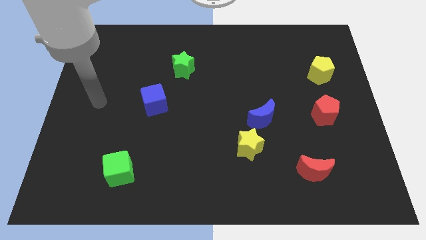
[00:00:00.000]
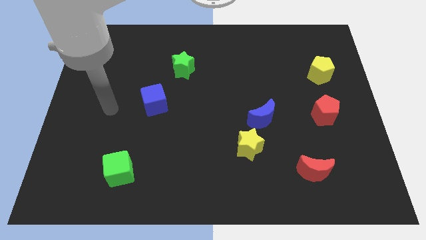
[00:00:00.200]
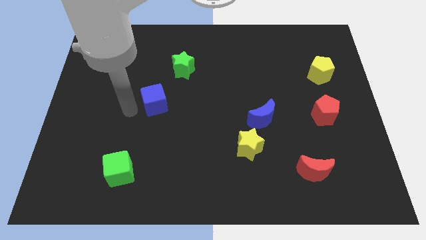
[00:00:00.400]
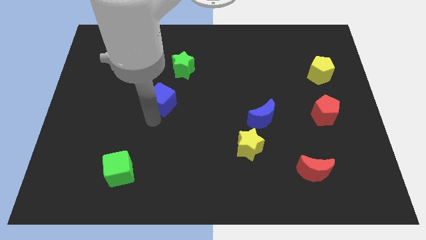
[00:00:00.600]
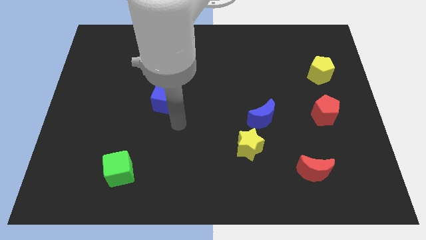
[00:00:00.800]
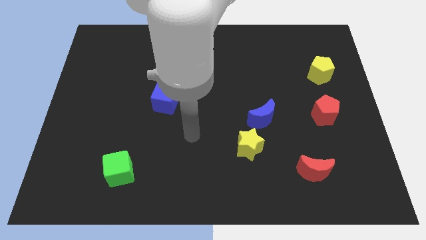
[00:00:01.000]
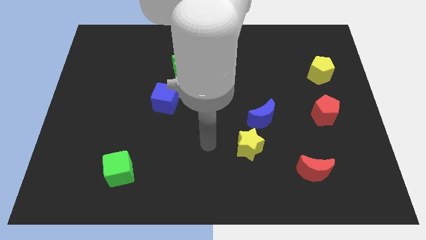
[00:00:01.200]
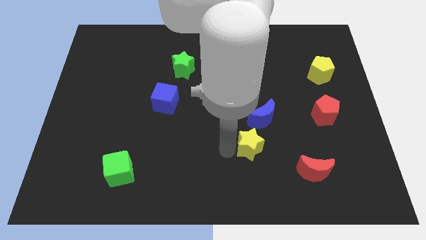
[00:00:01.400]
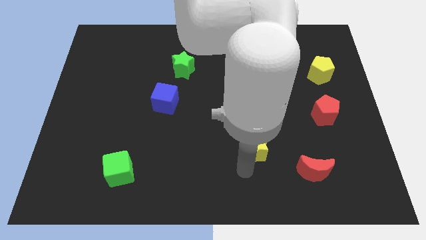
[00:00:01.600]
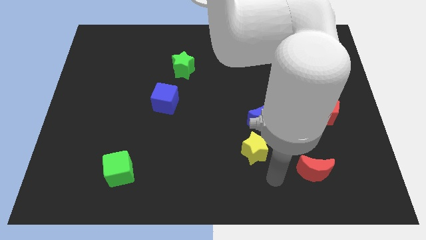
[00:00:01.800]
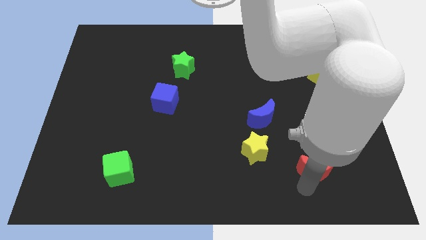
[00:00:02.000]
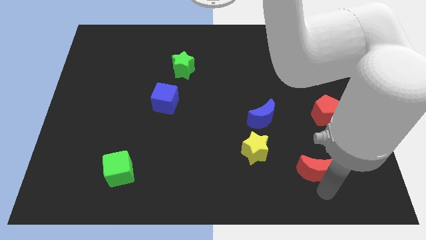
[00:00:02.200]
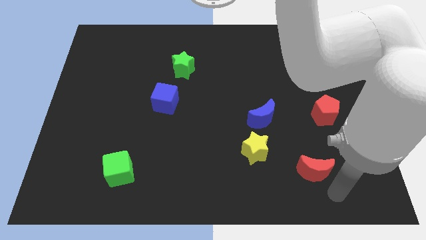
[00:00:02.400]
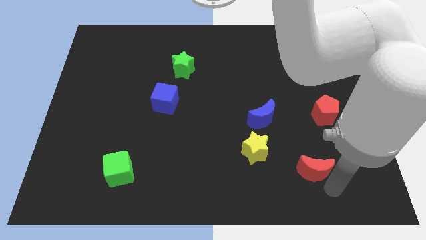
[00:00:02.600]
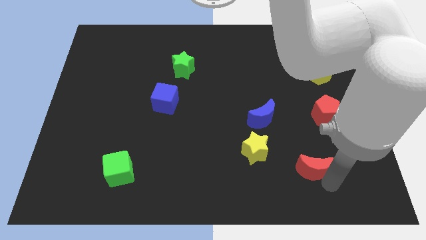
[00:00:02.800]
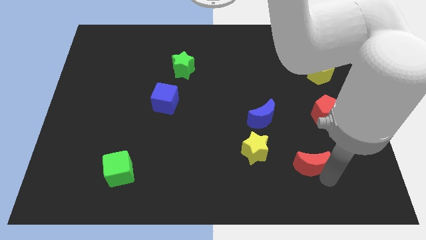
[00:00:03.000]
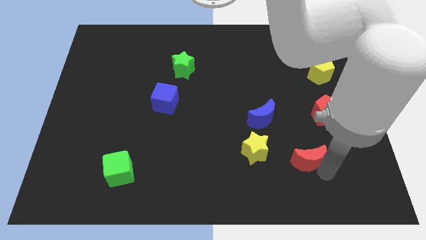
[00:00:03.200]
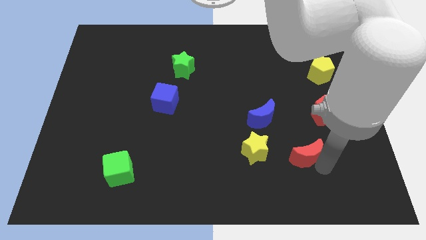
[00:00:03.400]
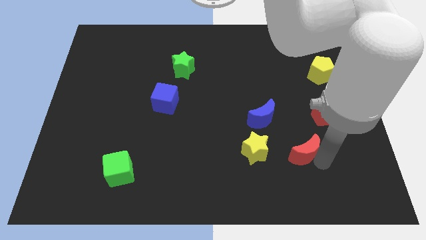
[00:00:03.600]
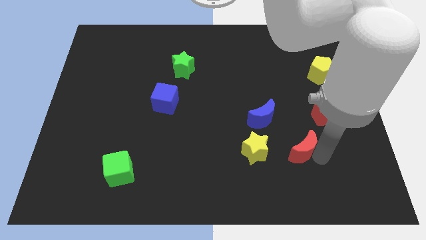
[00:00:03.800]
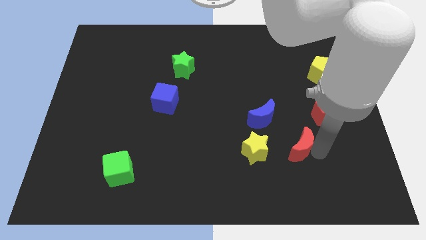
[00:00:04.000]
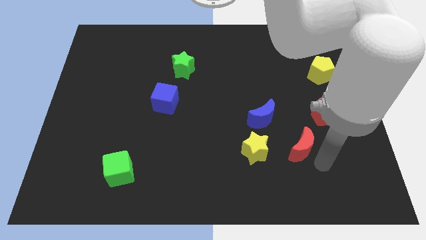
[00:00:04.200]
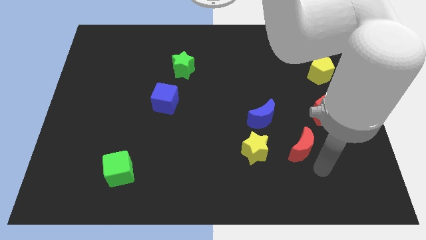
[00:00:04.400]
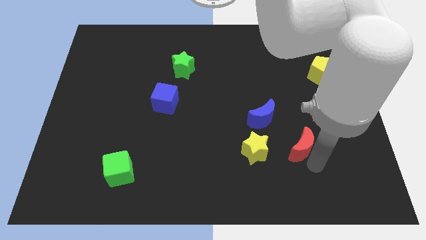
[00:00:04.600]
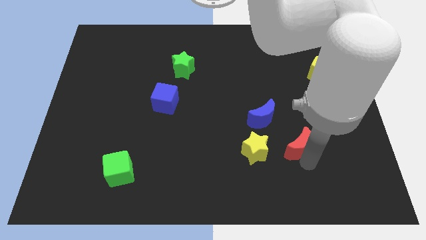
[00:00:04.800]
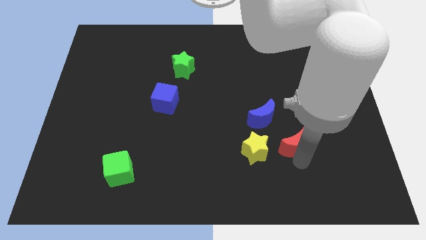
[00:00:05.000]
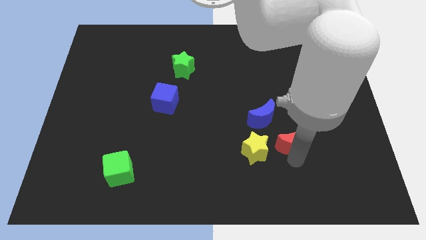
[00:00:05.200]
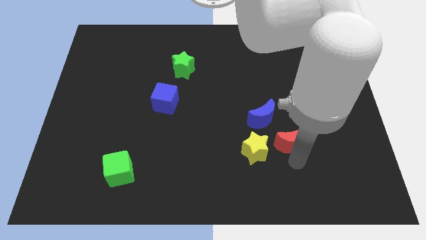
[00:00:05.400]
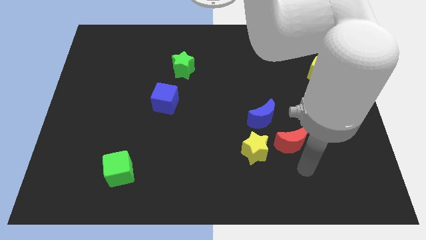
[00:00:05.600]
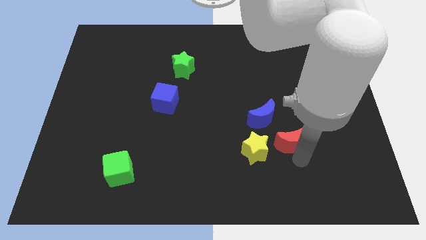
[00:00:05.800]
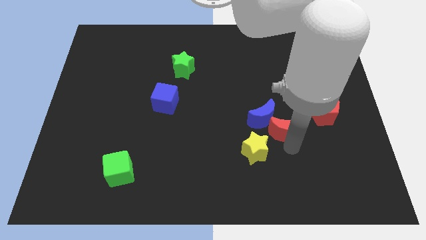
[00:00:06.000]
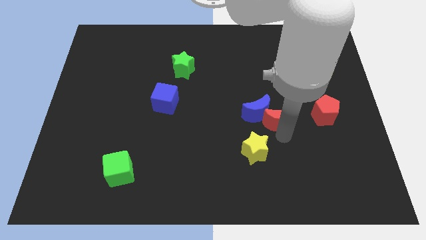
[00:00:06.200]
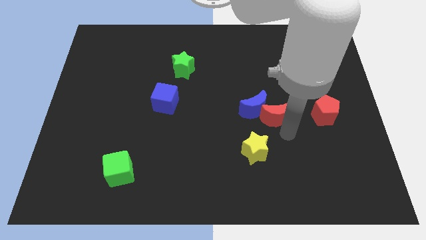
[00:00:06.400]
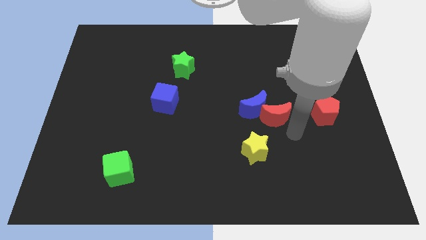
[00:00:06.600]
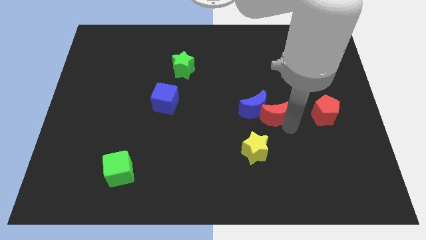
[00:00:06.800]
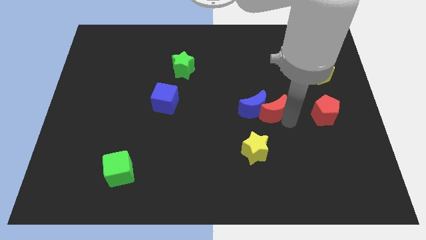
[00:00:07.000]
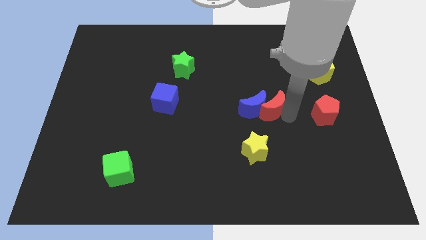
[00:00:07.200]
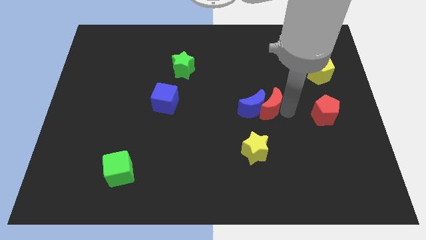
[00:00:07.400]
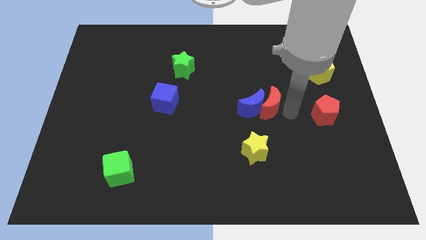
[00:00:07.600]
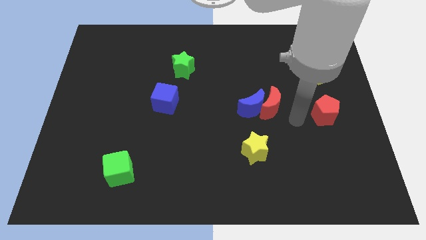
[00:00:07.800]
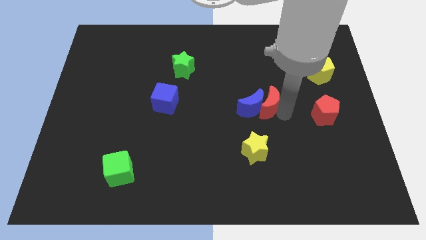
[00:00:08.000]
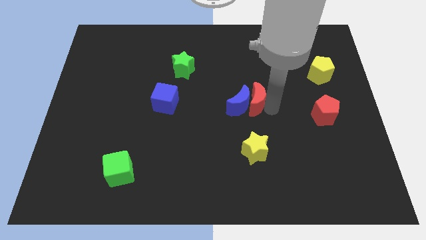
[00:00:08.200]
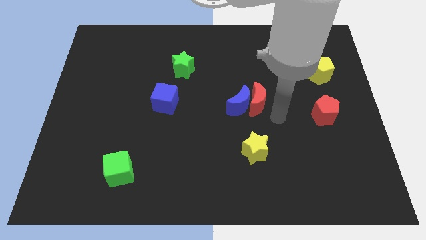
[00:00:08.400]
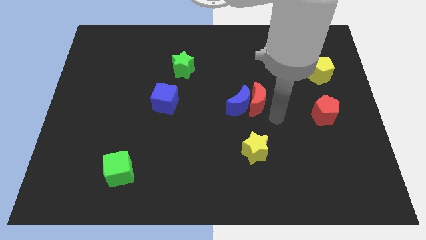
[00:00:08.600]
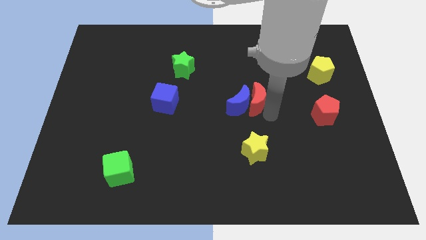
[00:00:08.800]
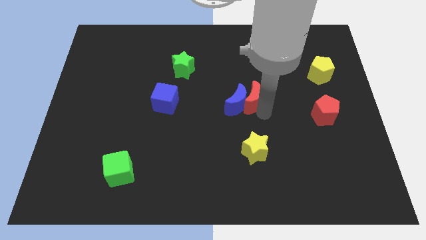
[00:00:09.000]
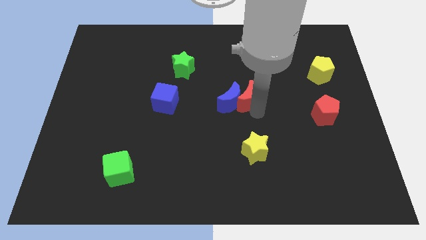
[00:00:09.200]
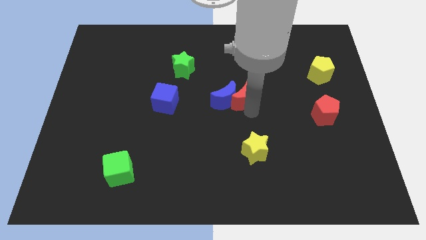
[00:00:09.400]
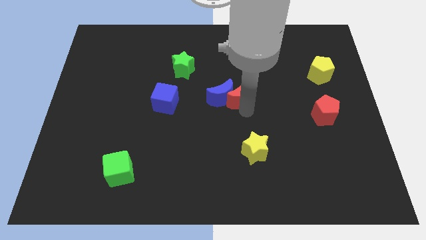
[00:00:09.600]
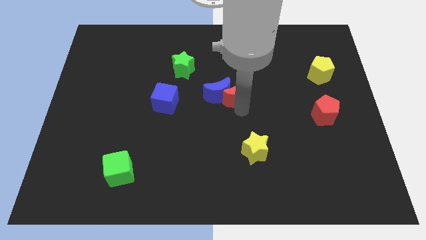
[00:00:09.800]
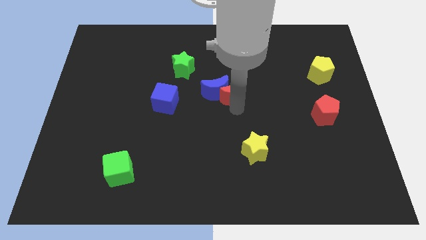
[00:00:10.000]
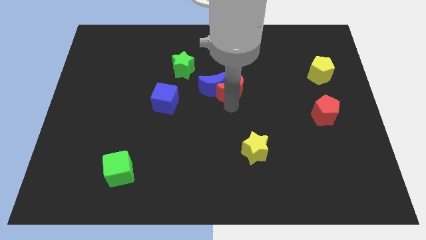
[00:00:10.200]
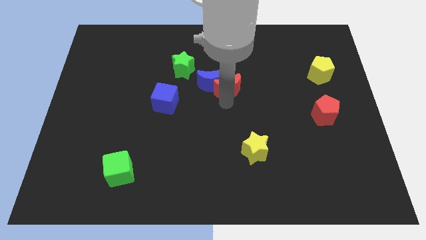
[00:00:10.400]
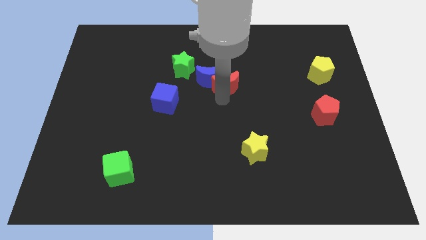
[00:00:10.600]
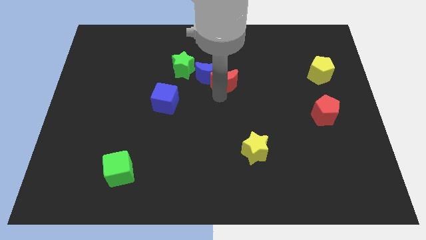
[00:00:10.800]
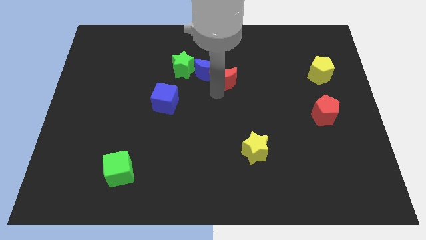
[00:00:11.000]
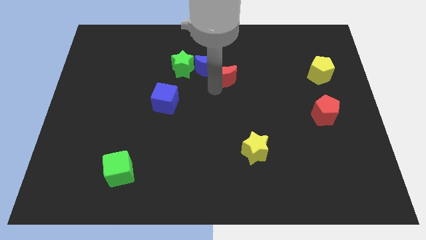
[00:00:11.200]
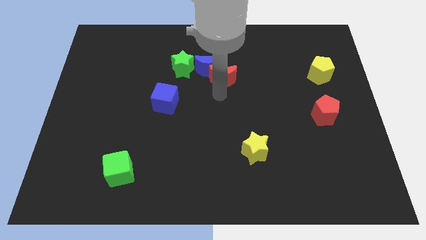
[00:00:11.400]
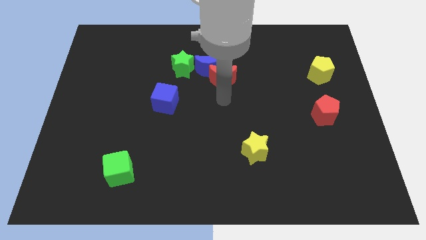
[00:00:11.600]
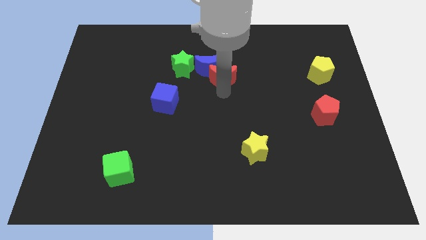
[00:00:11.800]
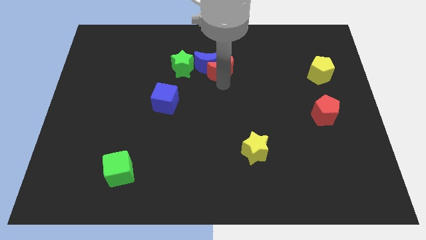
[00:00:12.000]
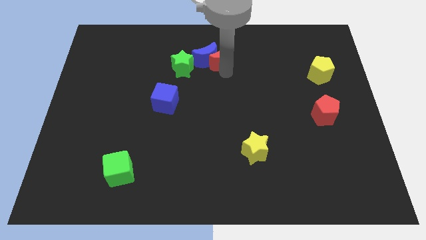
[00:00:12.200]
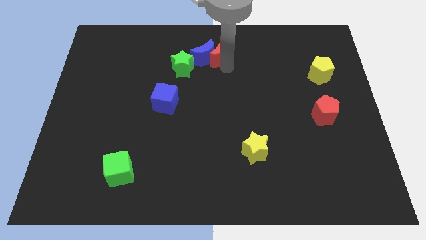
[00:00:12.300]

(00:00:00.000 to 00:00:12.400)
move the red moon to the top right of the green star
